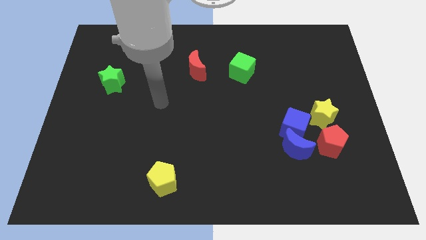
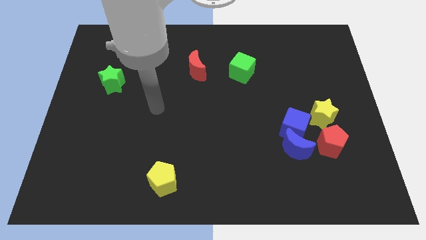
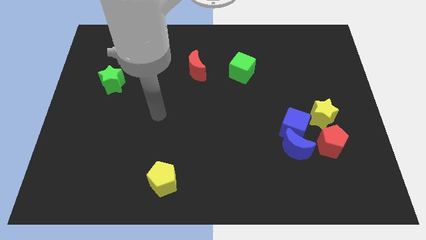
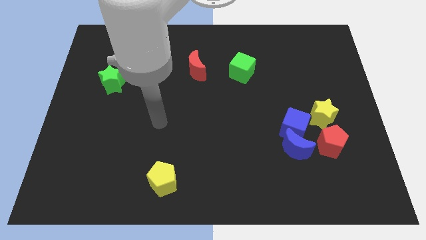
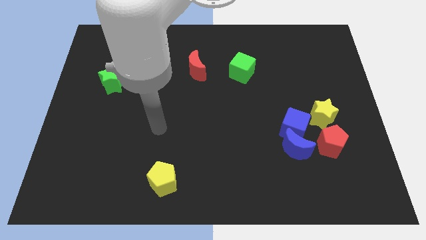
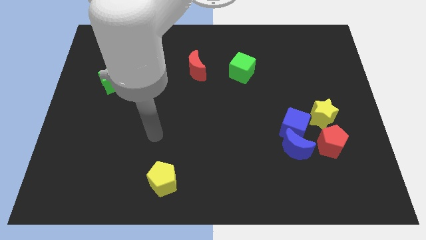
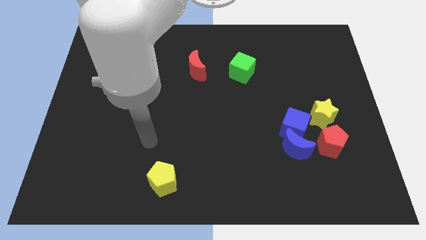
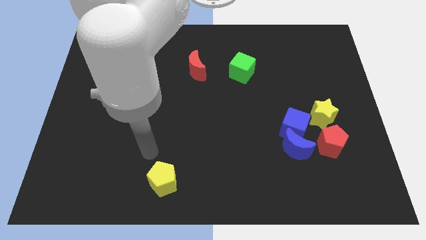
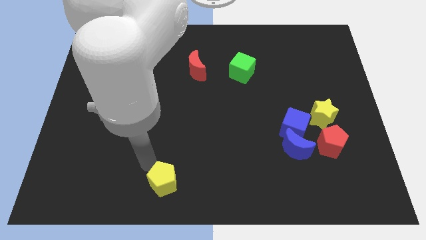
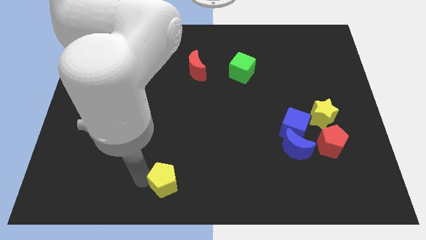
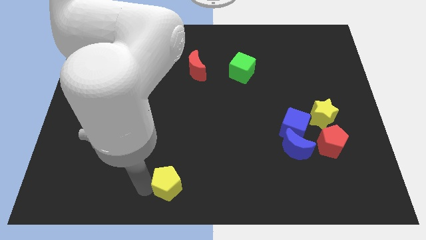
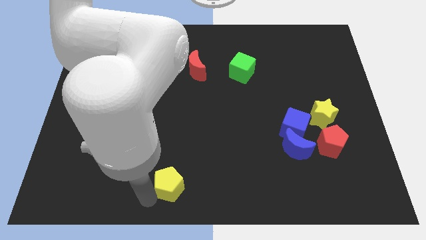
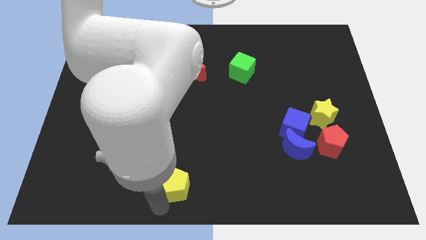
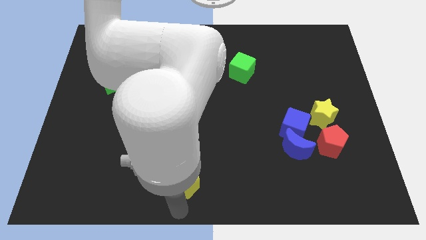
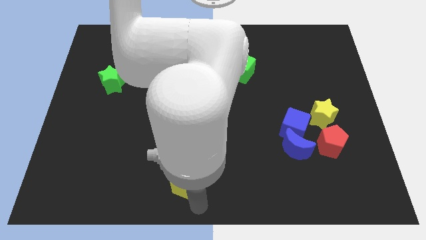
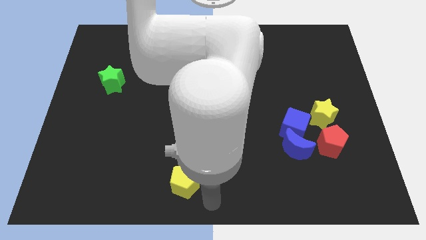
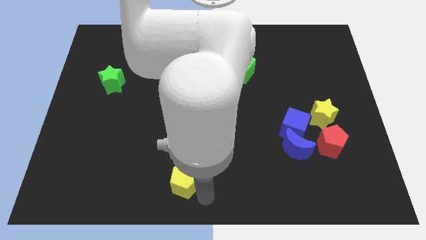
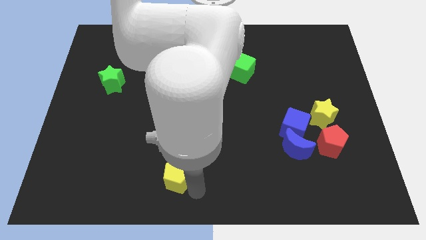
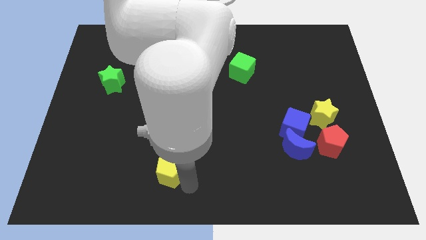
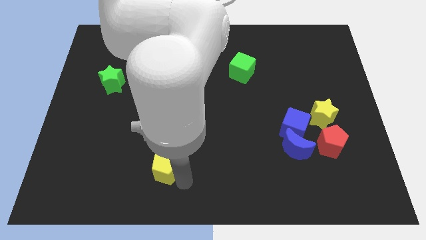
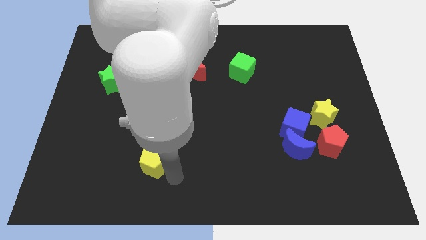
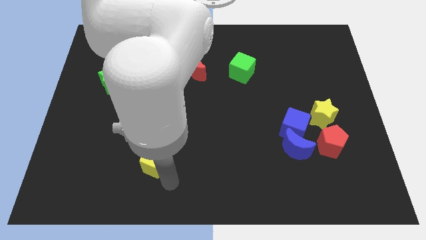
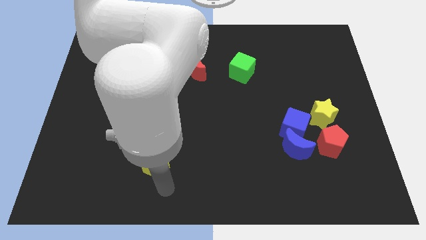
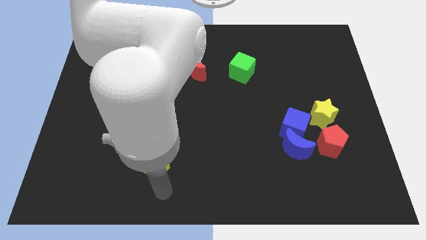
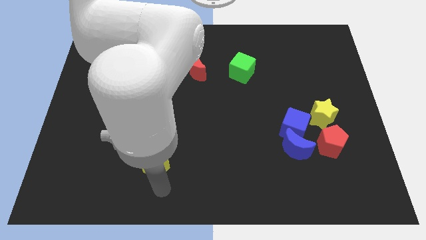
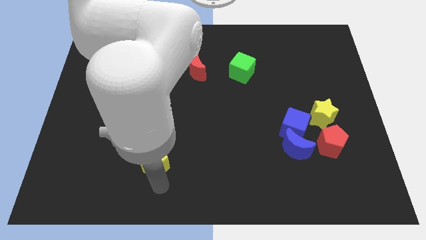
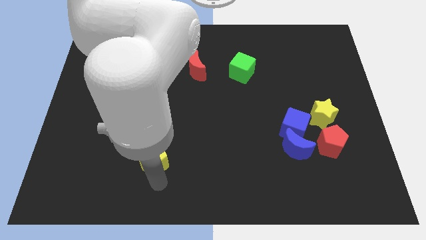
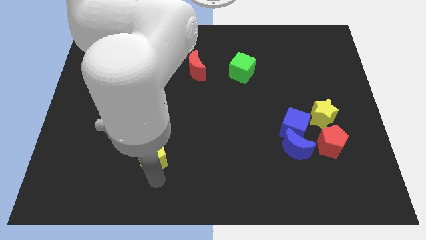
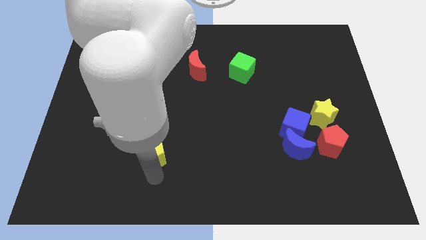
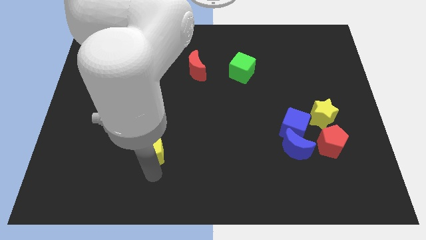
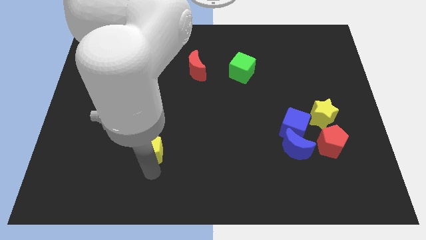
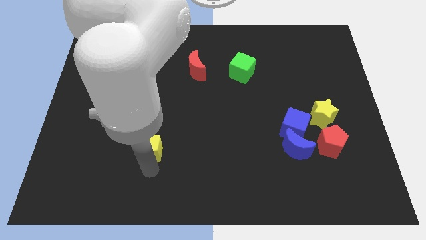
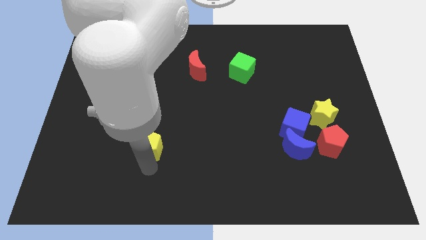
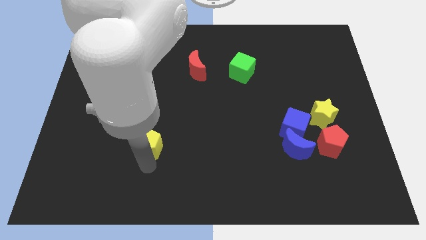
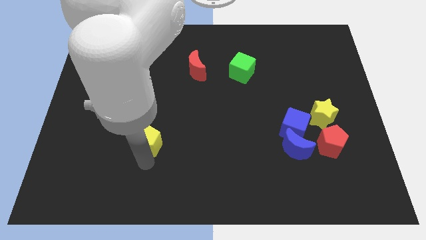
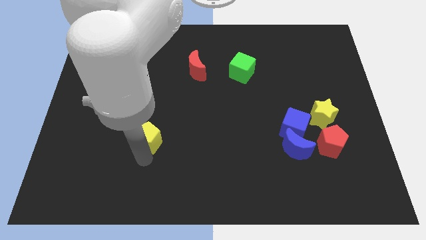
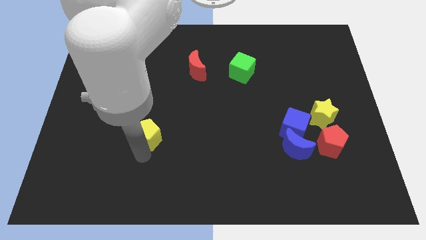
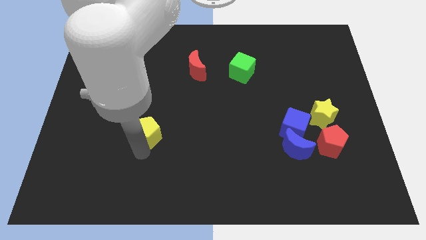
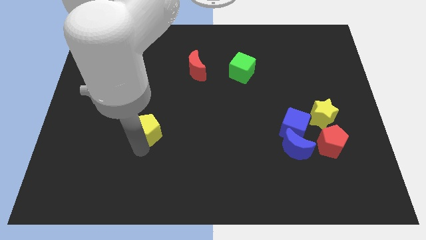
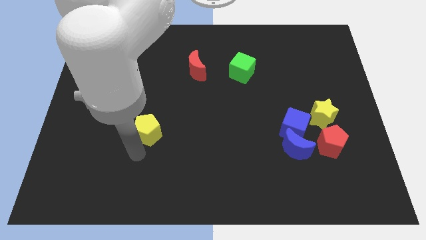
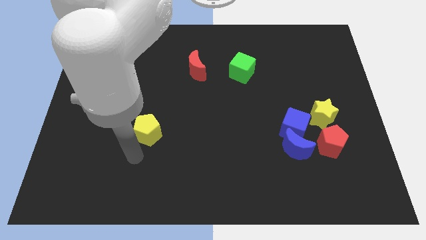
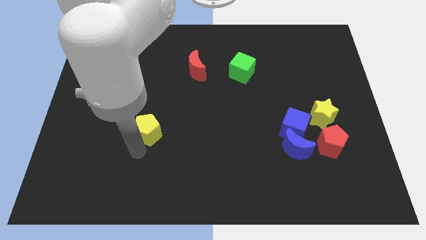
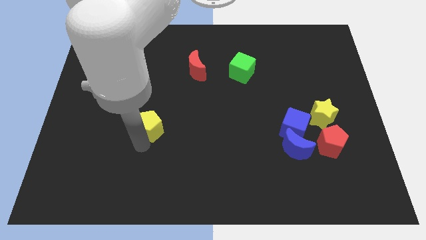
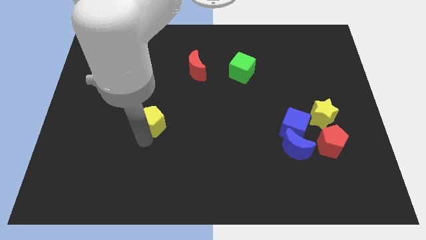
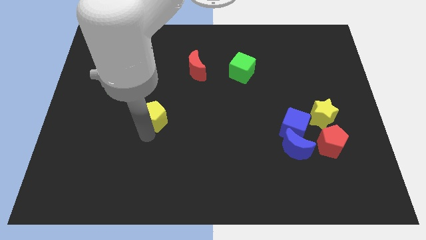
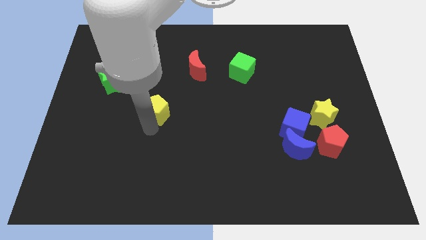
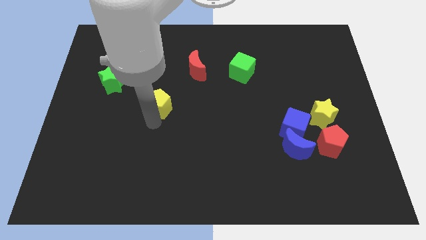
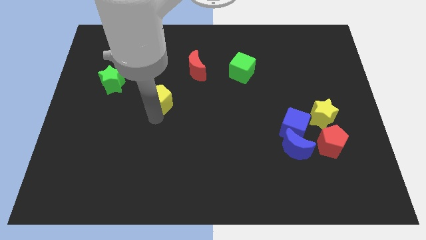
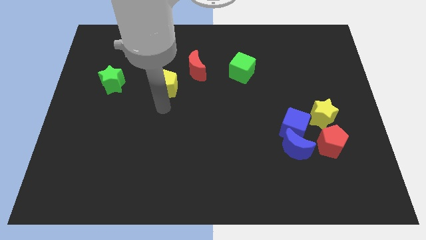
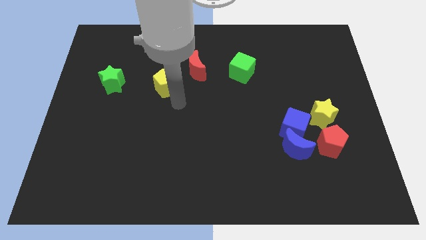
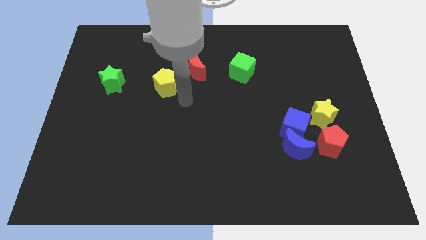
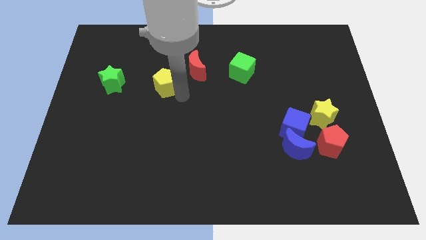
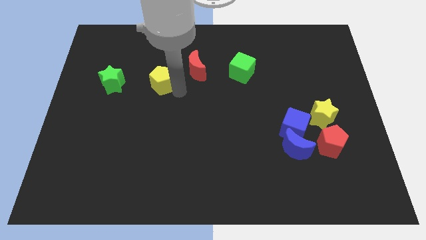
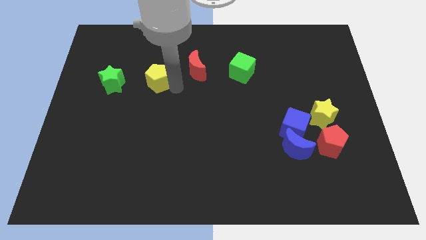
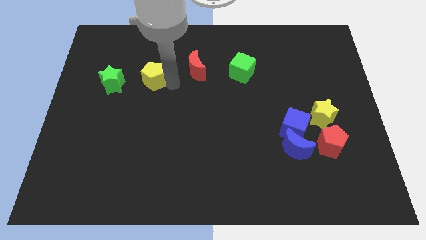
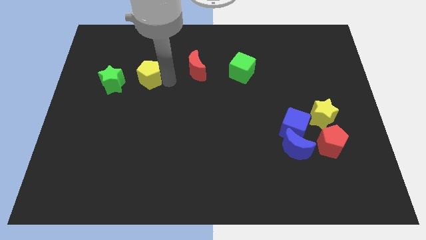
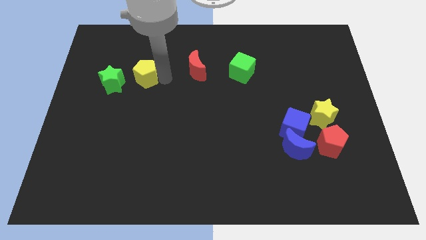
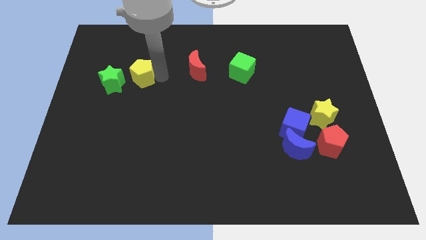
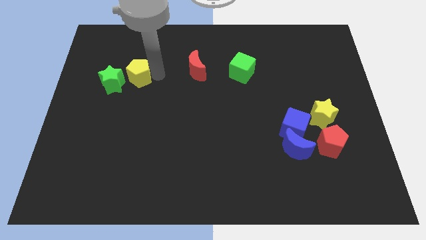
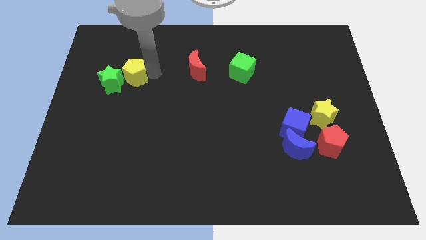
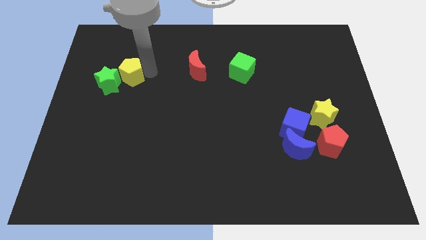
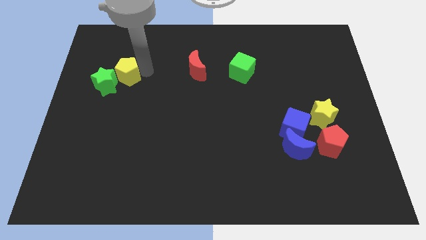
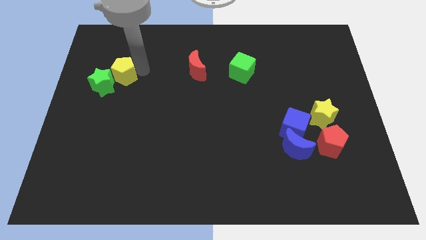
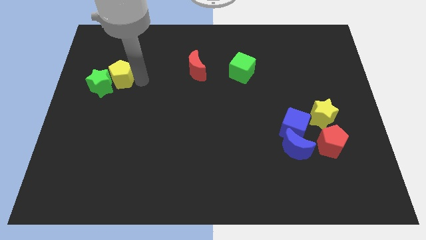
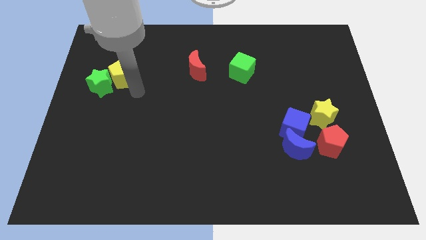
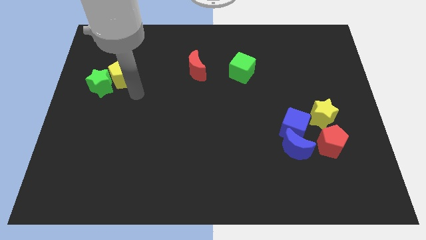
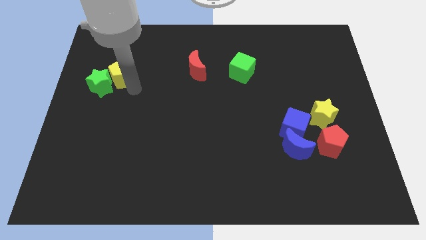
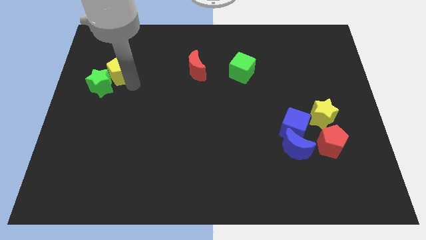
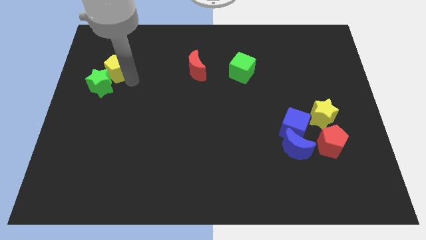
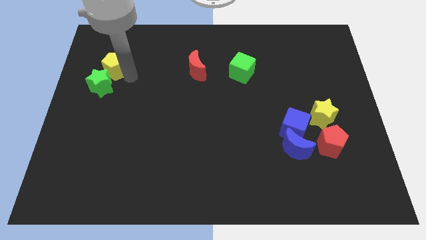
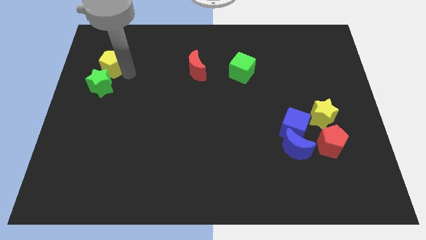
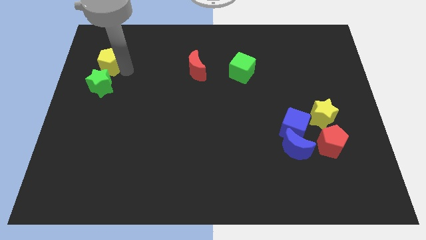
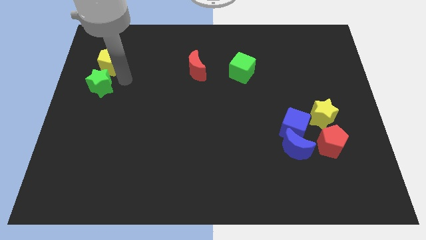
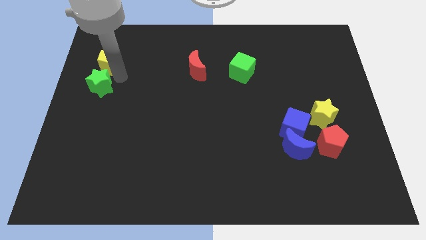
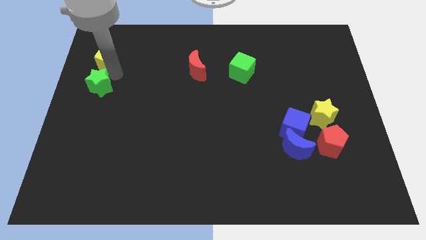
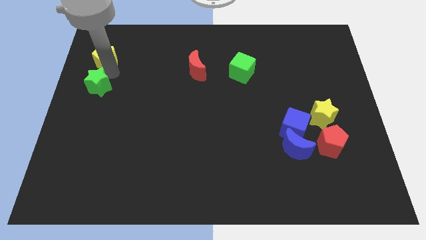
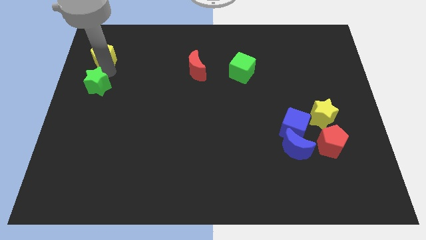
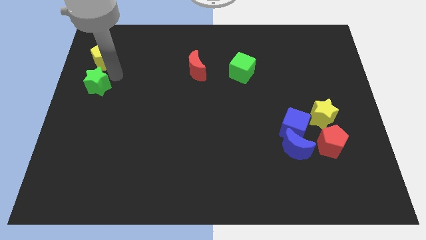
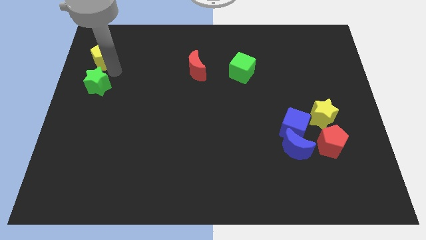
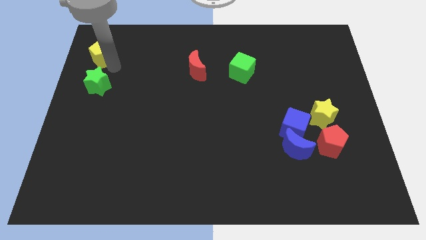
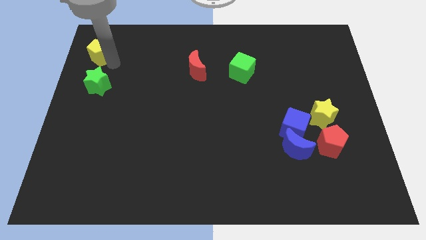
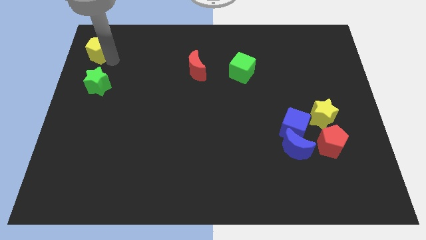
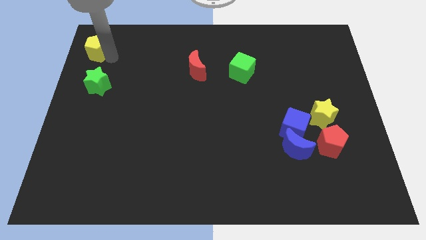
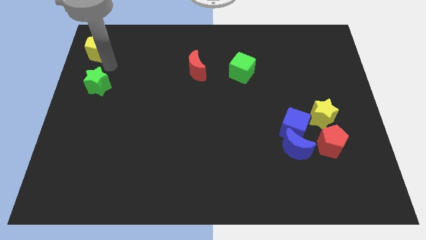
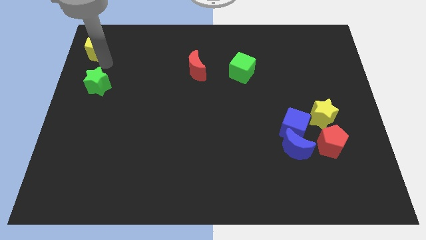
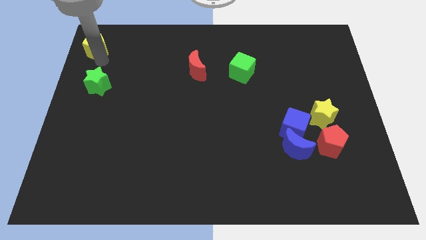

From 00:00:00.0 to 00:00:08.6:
push the yellow pentagon to the top left corner
